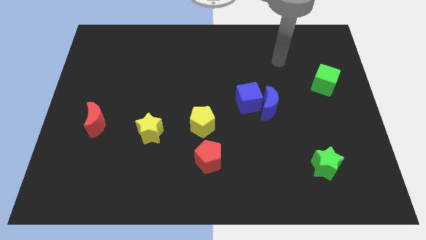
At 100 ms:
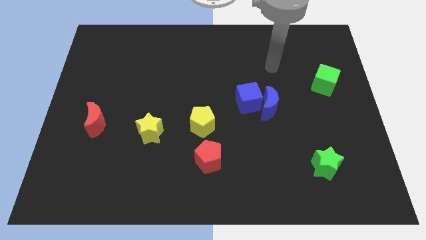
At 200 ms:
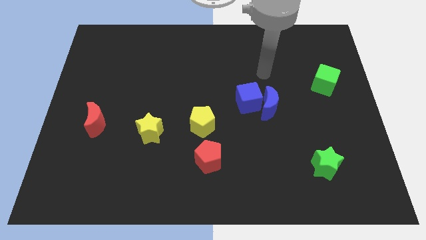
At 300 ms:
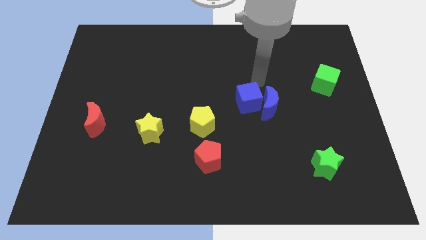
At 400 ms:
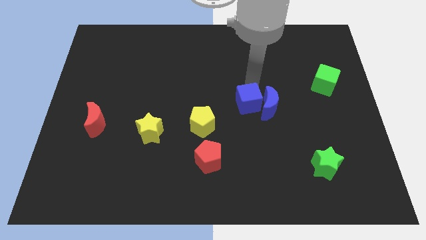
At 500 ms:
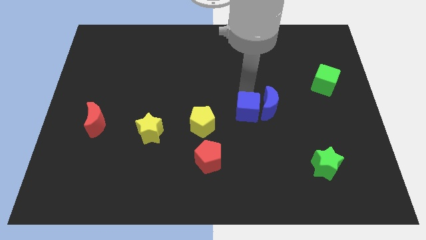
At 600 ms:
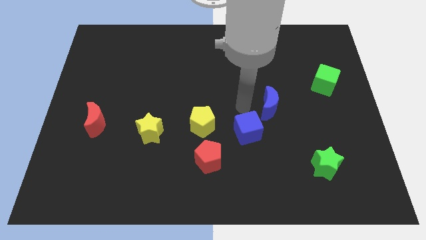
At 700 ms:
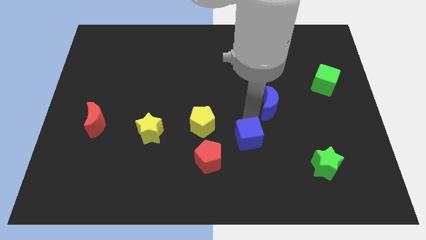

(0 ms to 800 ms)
pull the blue moon apart from the blue cube

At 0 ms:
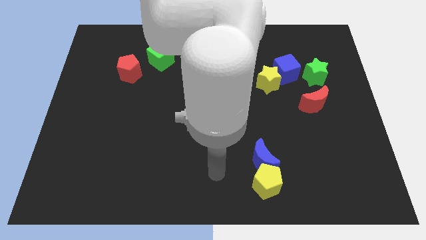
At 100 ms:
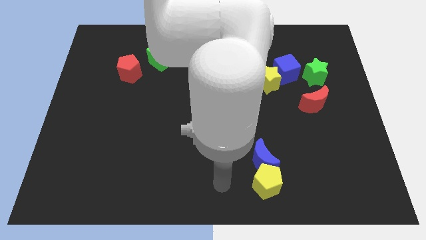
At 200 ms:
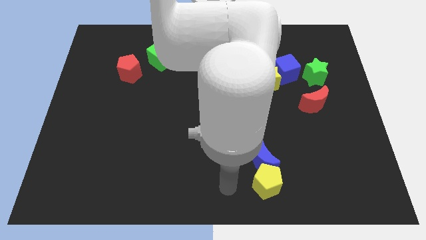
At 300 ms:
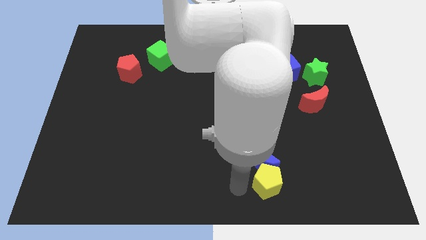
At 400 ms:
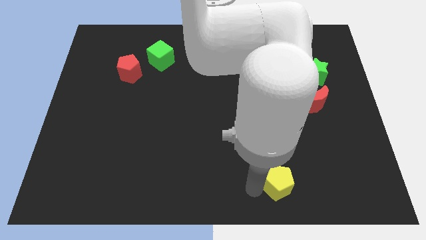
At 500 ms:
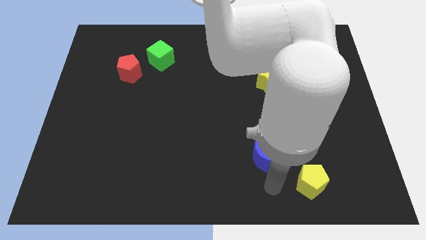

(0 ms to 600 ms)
pull the blue moon apart from the yellow pentagon

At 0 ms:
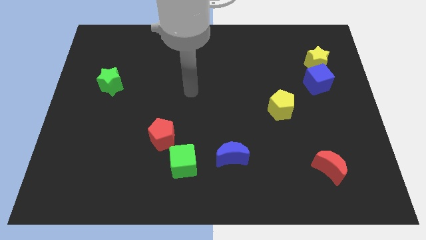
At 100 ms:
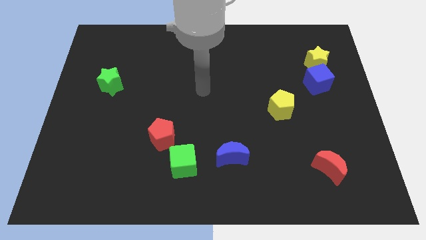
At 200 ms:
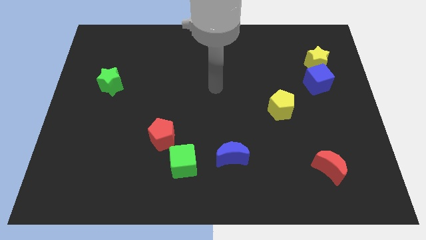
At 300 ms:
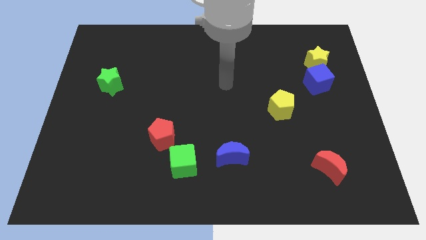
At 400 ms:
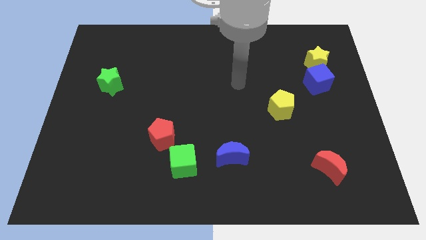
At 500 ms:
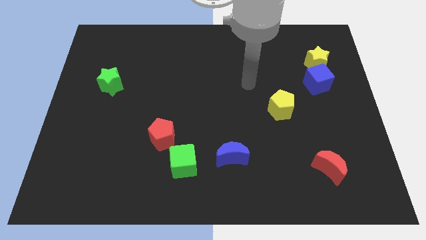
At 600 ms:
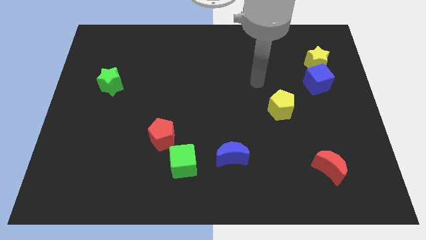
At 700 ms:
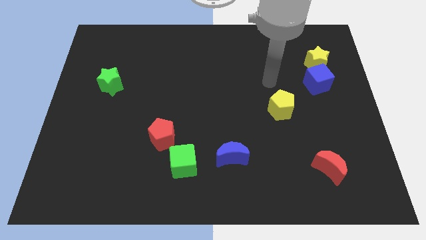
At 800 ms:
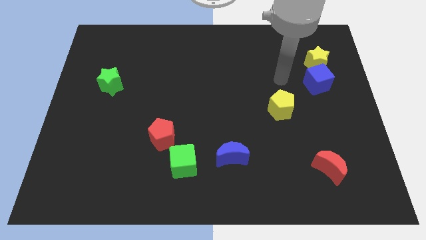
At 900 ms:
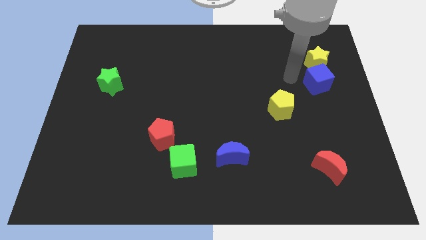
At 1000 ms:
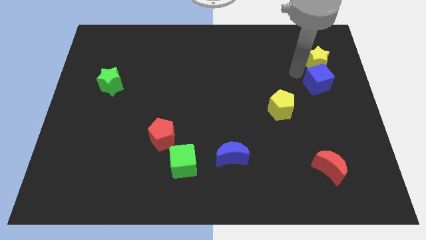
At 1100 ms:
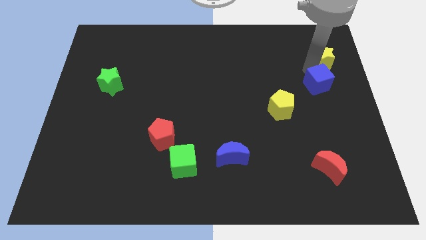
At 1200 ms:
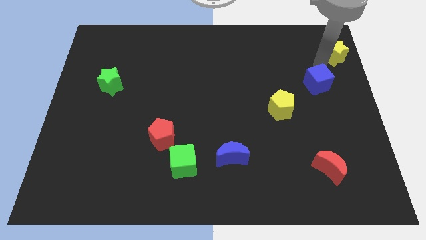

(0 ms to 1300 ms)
move the blue cube away from the yellow star

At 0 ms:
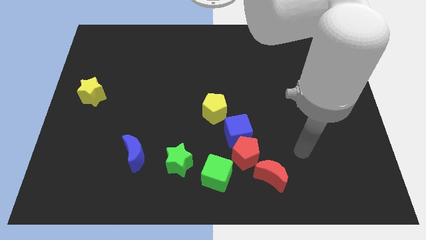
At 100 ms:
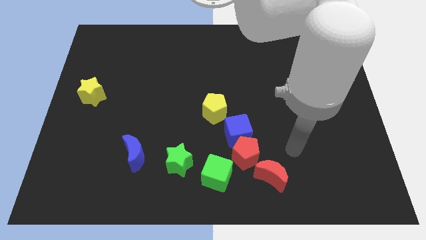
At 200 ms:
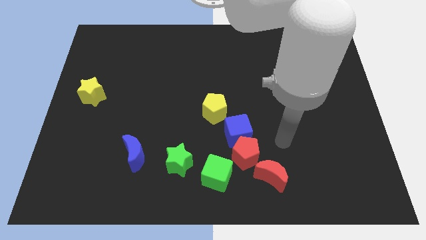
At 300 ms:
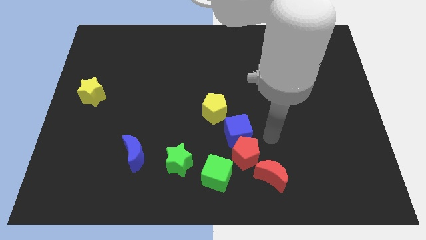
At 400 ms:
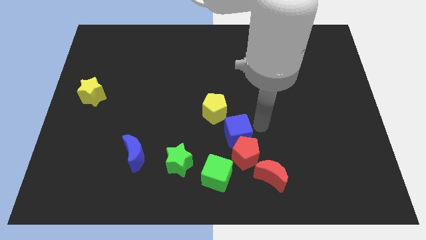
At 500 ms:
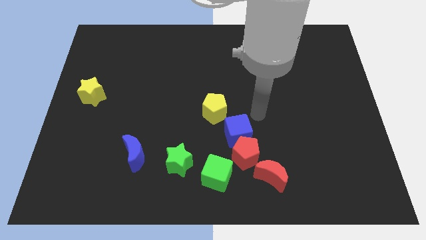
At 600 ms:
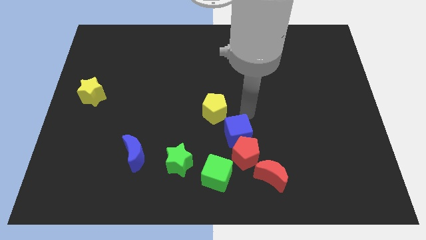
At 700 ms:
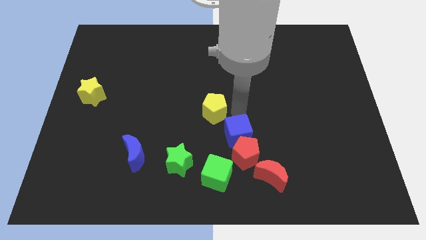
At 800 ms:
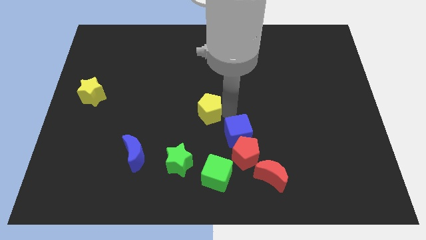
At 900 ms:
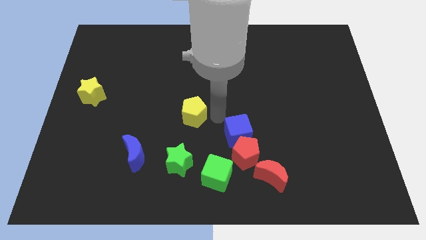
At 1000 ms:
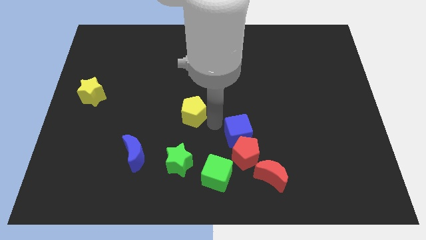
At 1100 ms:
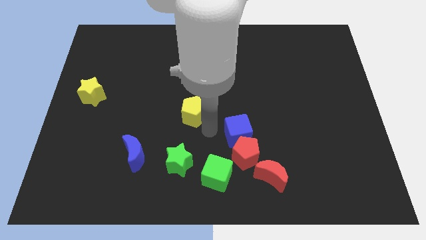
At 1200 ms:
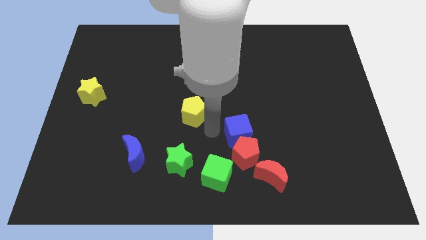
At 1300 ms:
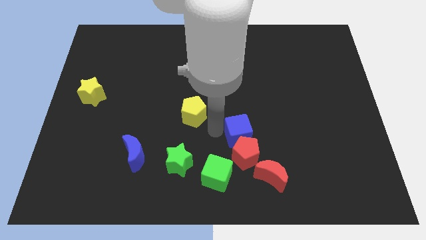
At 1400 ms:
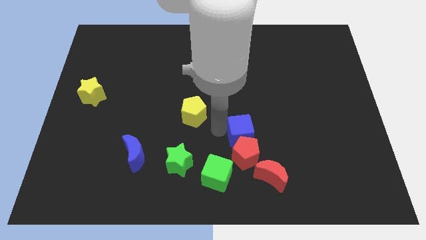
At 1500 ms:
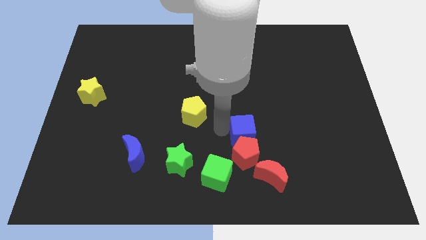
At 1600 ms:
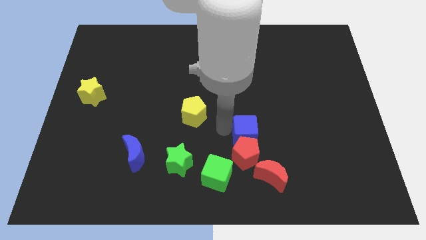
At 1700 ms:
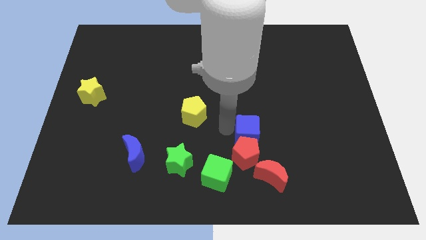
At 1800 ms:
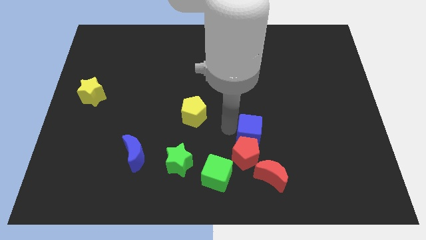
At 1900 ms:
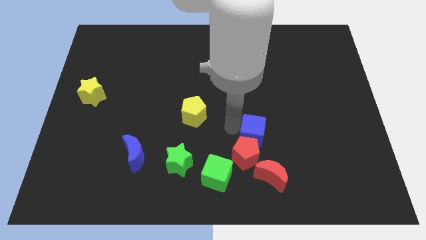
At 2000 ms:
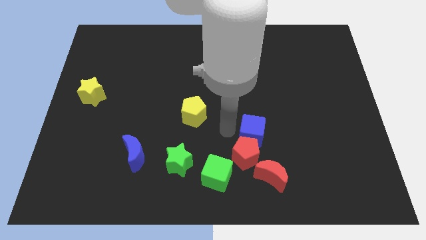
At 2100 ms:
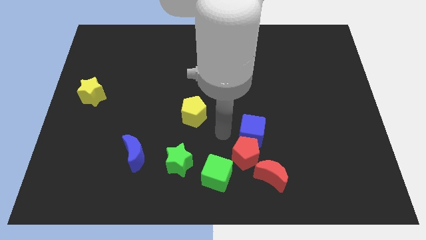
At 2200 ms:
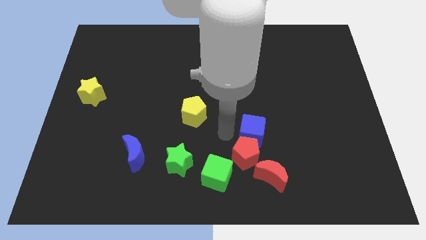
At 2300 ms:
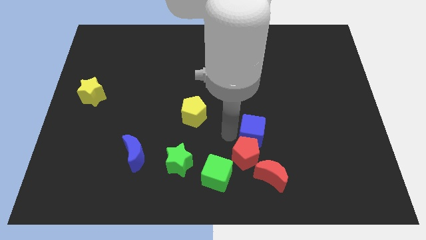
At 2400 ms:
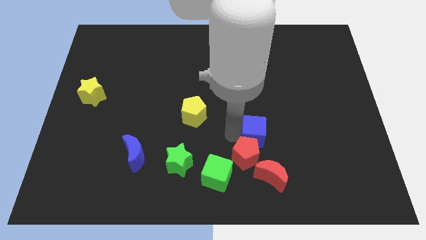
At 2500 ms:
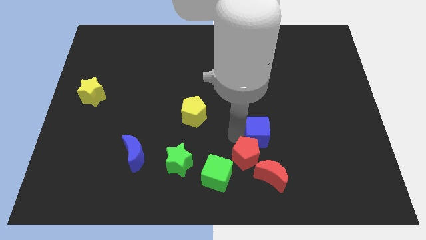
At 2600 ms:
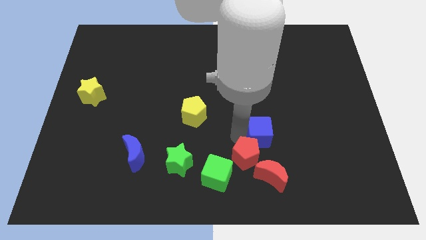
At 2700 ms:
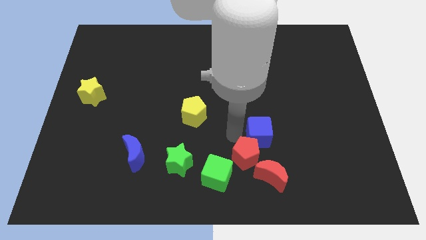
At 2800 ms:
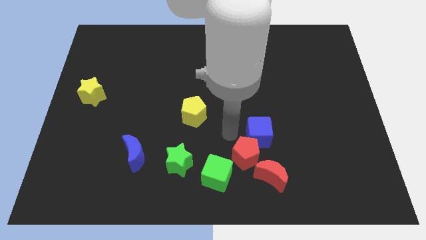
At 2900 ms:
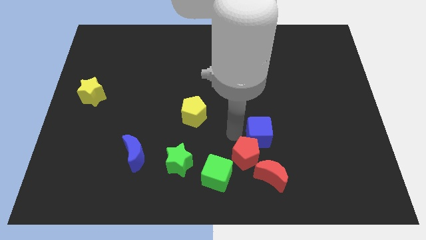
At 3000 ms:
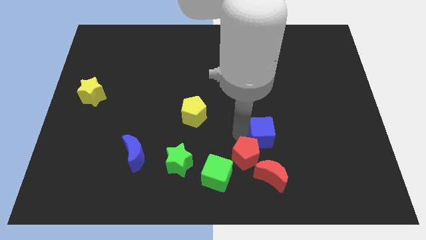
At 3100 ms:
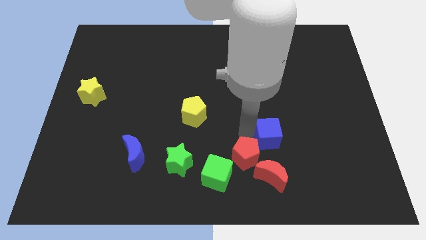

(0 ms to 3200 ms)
separate the blue cube from the red pentagon and yellow pentagon

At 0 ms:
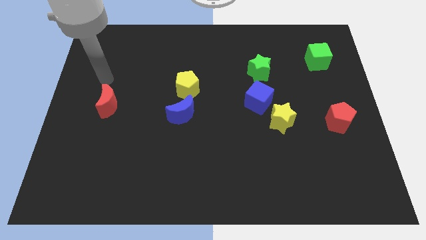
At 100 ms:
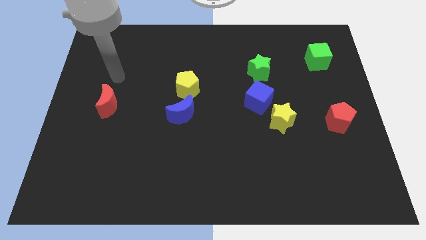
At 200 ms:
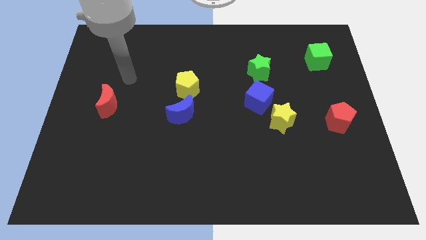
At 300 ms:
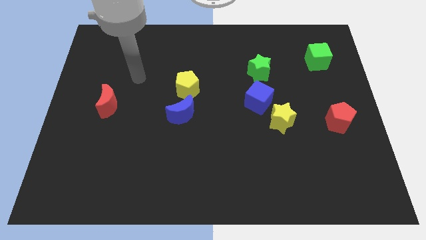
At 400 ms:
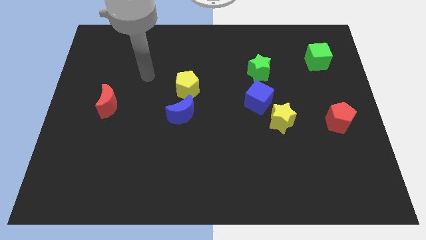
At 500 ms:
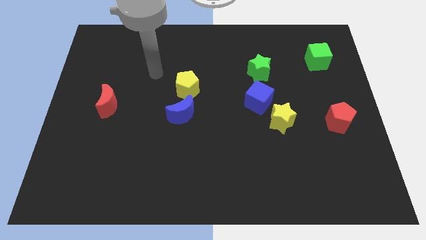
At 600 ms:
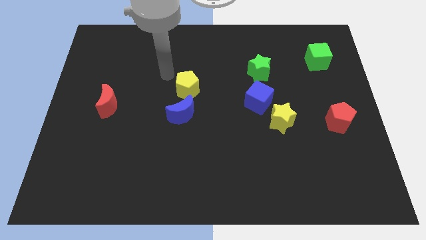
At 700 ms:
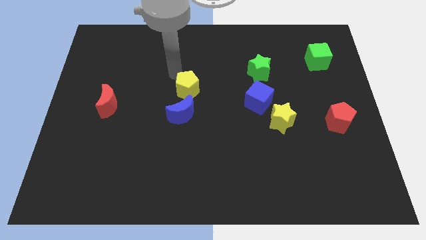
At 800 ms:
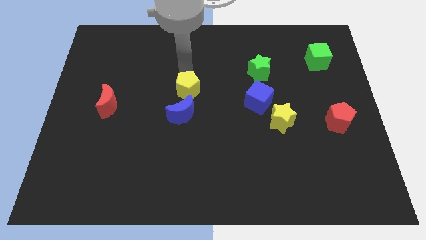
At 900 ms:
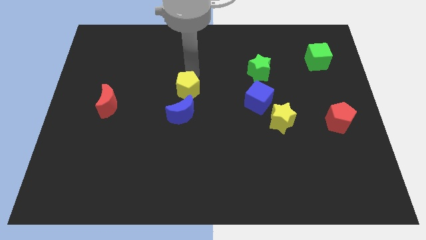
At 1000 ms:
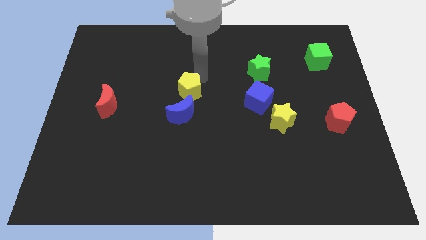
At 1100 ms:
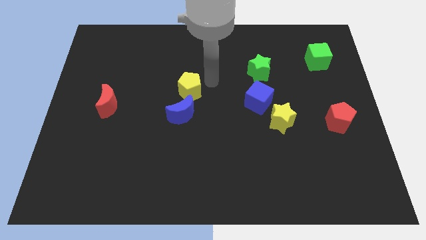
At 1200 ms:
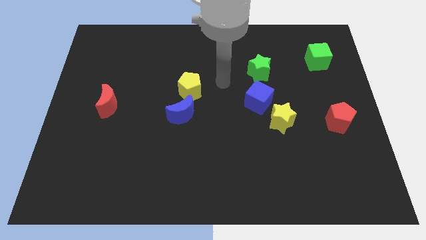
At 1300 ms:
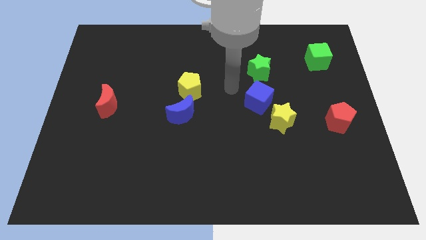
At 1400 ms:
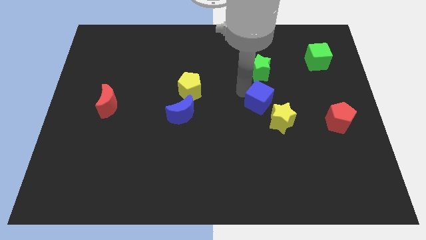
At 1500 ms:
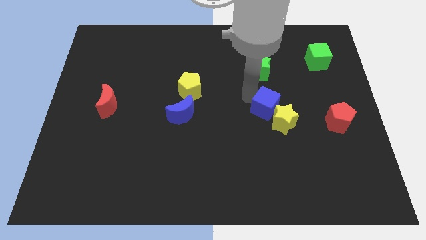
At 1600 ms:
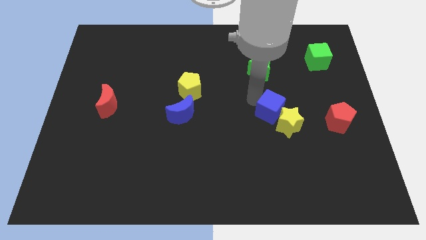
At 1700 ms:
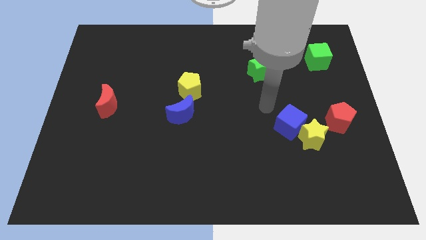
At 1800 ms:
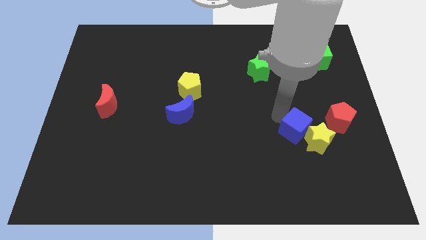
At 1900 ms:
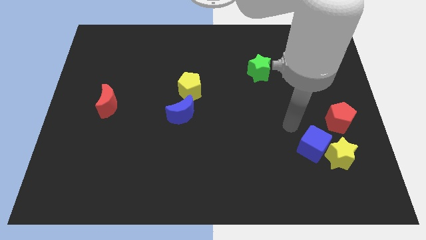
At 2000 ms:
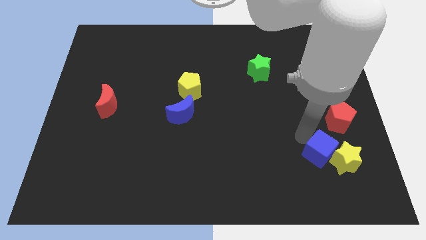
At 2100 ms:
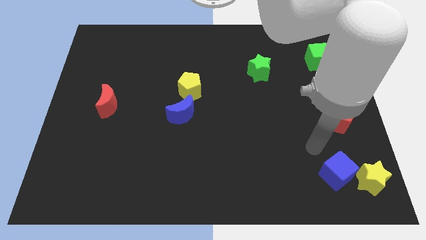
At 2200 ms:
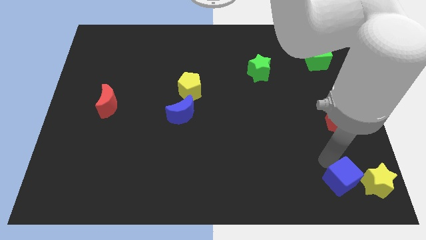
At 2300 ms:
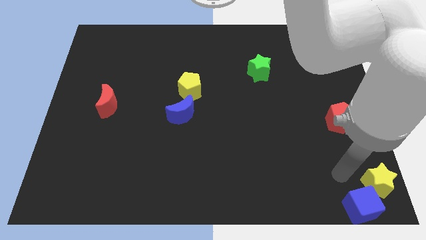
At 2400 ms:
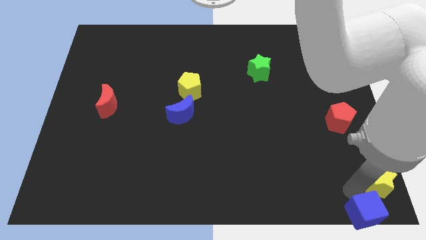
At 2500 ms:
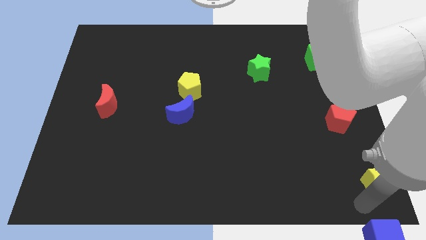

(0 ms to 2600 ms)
separate the yellow star from the blue cube

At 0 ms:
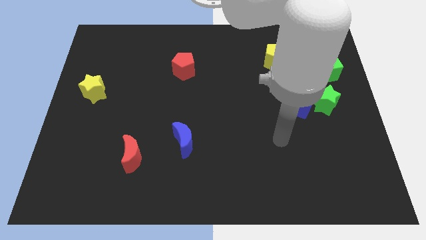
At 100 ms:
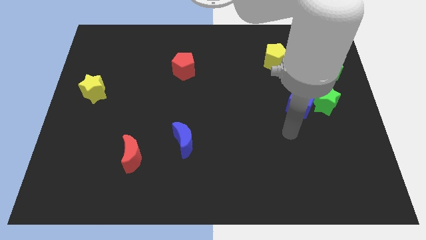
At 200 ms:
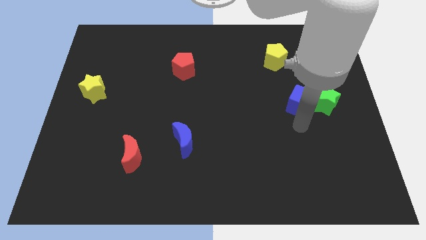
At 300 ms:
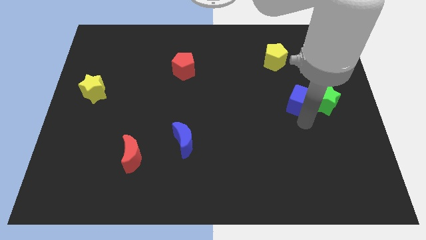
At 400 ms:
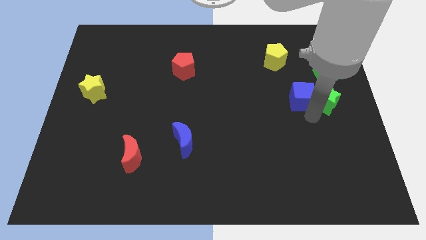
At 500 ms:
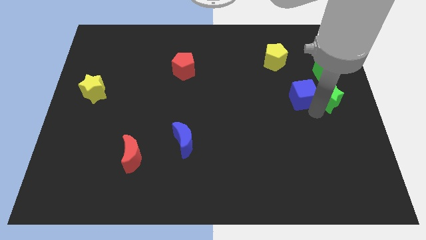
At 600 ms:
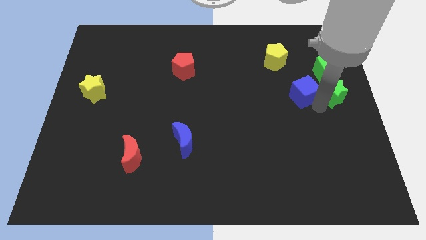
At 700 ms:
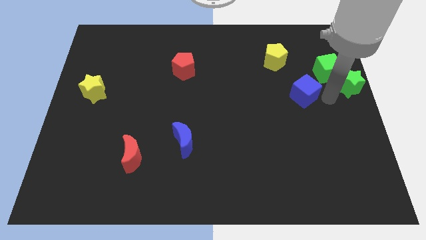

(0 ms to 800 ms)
pull the blue cube apart from the green star

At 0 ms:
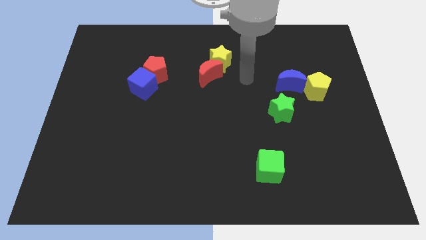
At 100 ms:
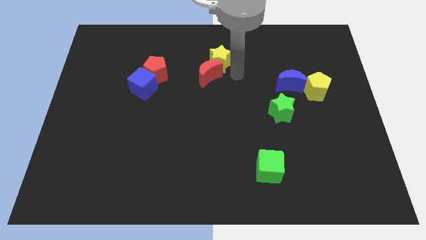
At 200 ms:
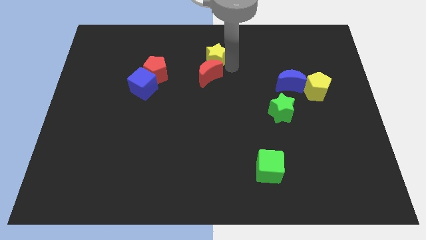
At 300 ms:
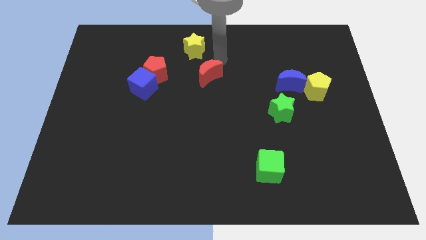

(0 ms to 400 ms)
move the red moon away from the yellow star
